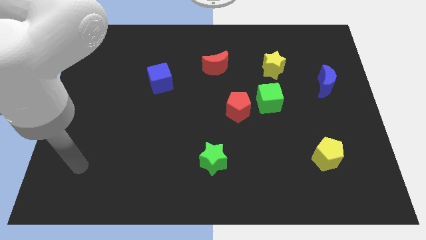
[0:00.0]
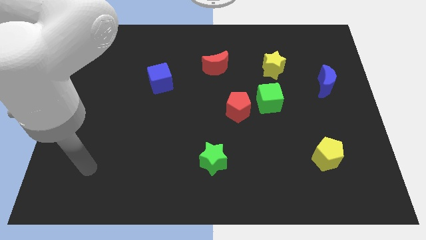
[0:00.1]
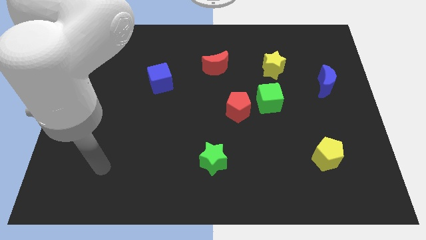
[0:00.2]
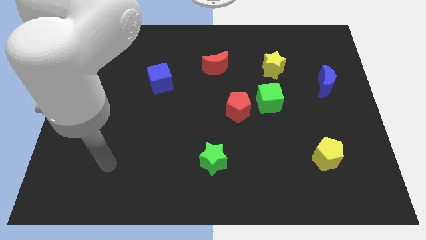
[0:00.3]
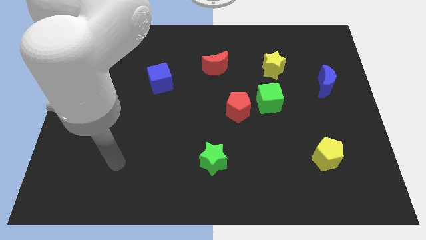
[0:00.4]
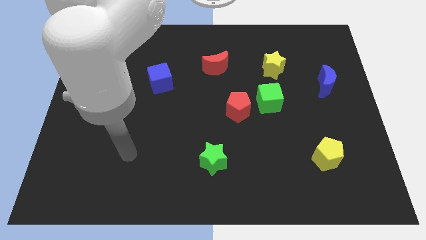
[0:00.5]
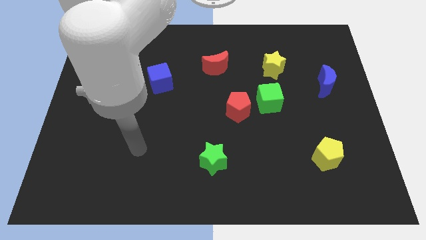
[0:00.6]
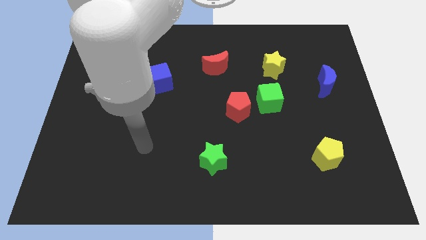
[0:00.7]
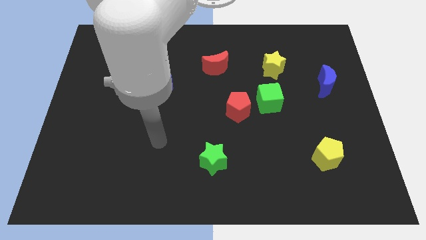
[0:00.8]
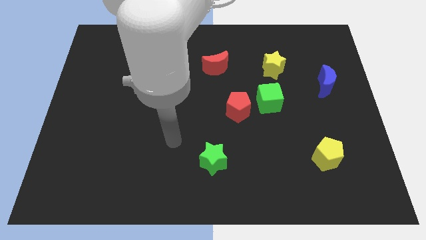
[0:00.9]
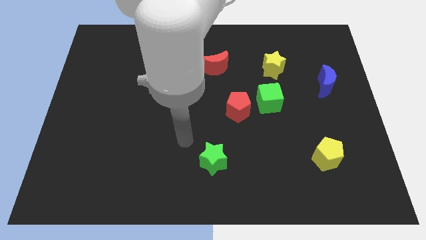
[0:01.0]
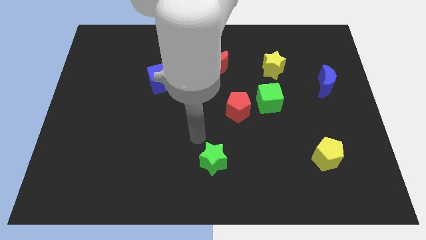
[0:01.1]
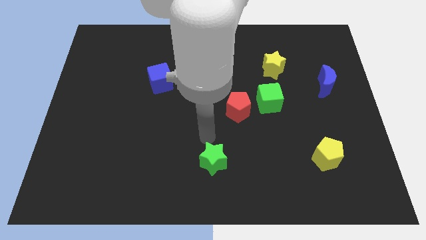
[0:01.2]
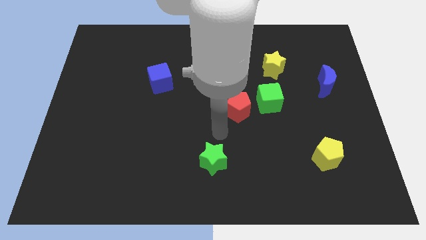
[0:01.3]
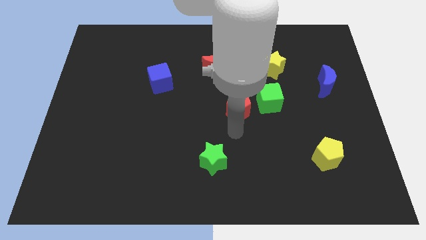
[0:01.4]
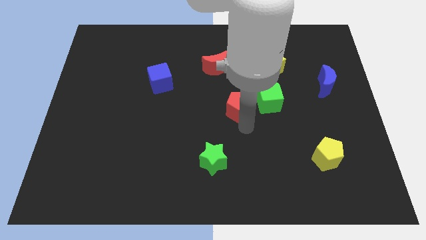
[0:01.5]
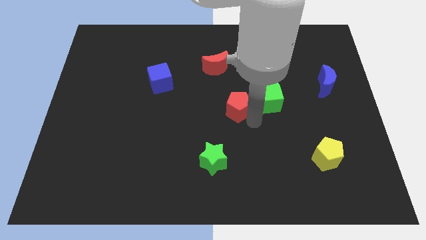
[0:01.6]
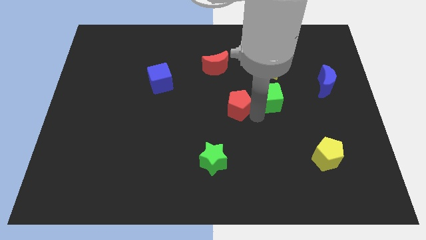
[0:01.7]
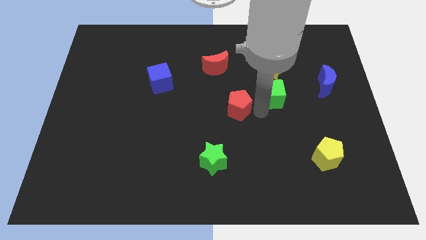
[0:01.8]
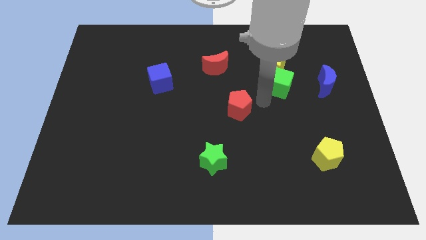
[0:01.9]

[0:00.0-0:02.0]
move the red pentagon away from the green cube

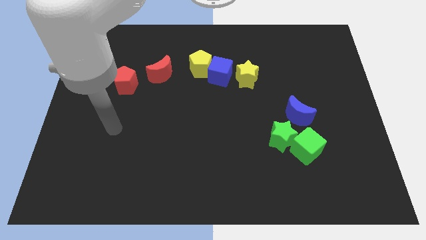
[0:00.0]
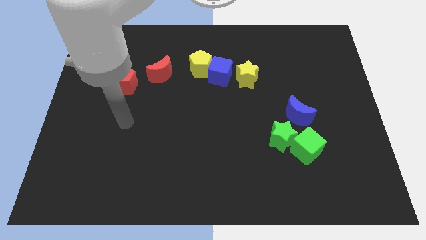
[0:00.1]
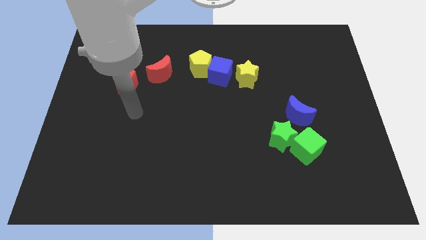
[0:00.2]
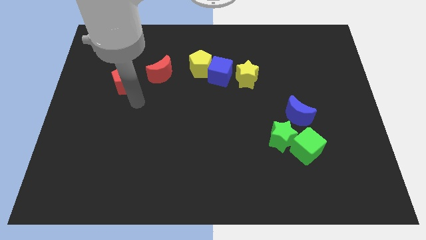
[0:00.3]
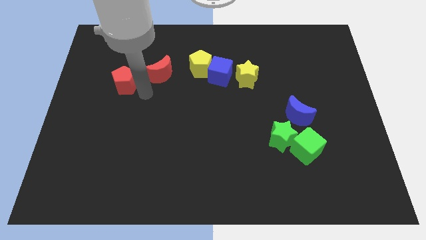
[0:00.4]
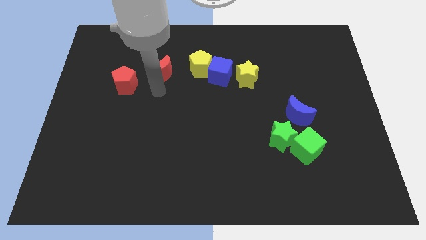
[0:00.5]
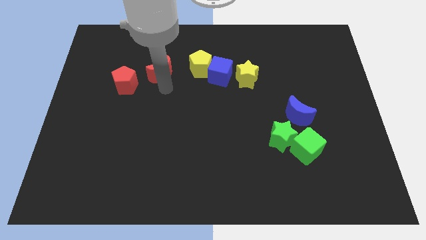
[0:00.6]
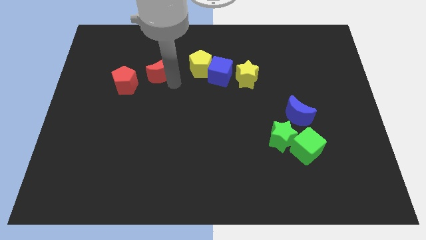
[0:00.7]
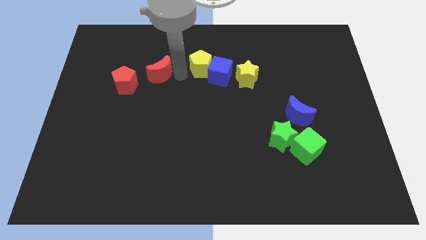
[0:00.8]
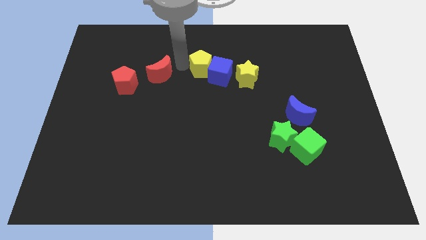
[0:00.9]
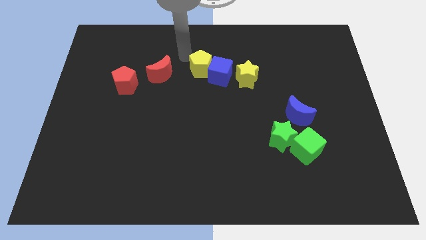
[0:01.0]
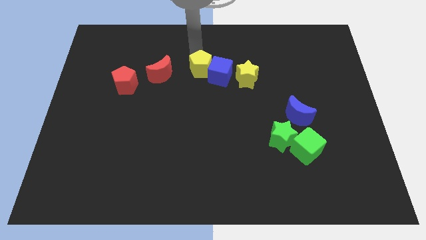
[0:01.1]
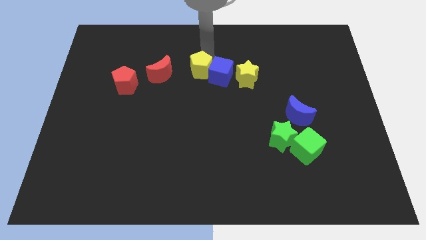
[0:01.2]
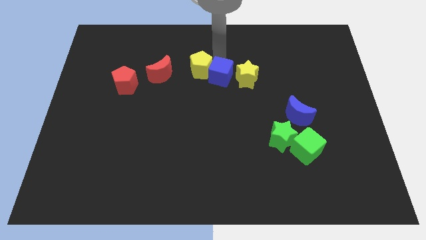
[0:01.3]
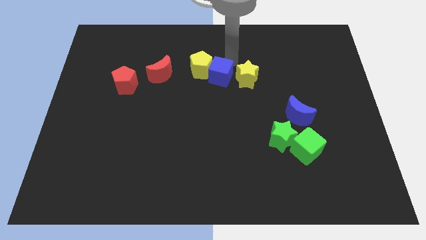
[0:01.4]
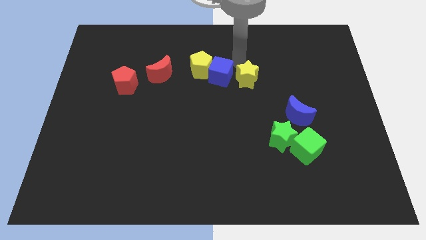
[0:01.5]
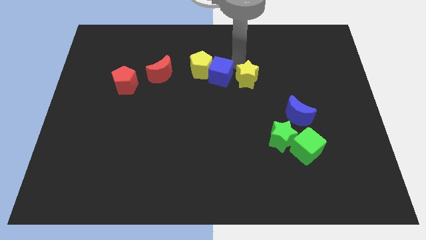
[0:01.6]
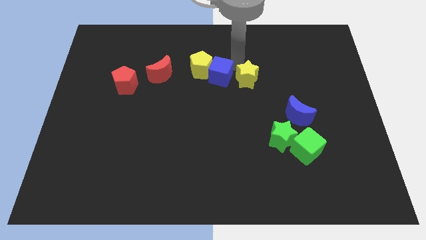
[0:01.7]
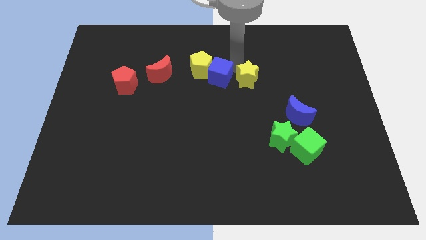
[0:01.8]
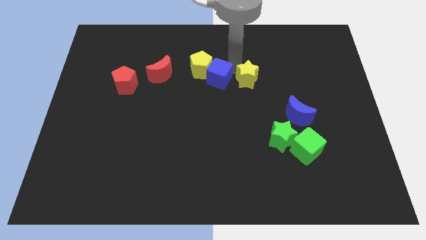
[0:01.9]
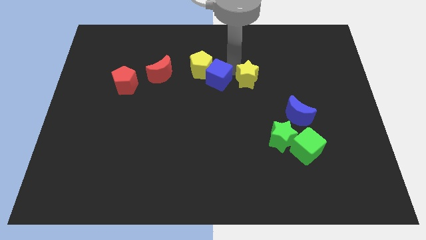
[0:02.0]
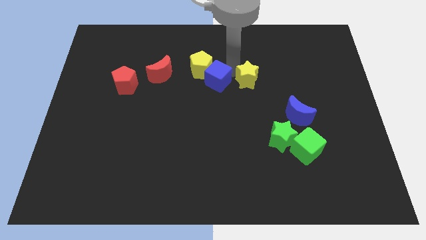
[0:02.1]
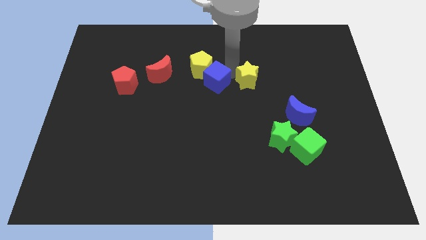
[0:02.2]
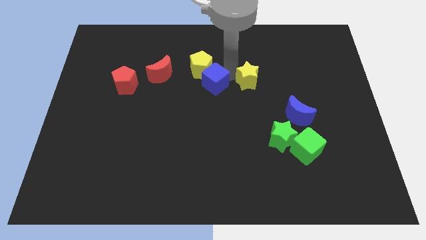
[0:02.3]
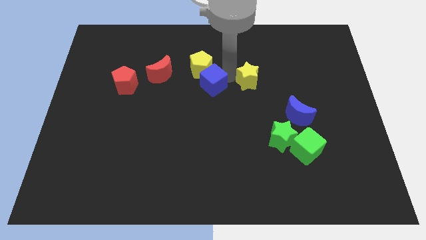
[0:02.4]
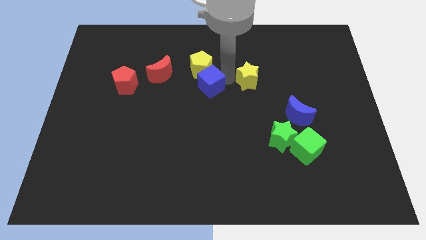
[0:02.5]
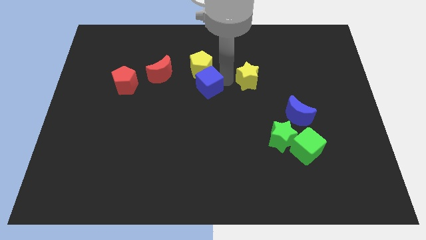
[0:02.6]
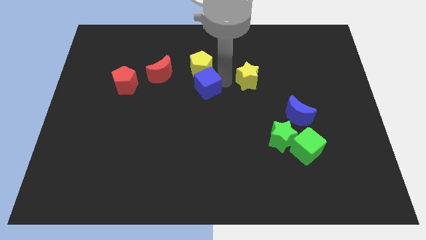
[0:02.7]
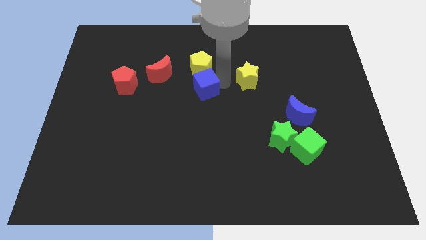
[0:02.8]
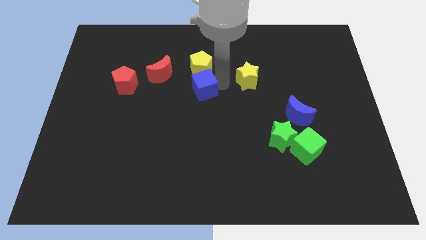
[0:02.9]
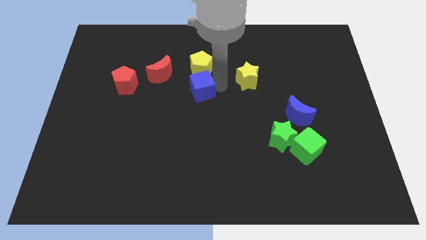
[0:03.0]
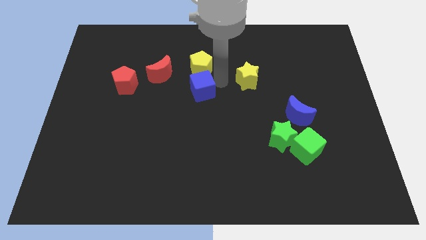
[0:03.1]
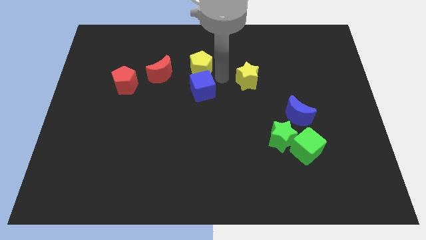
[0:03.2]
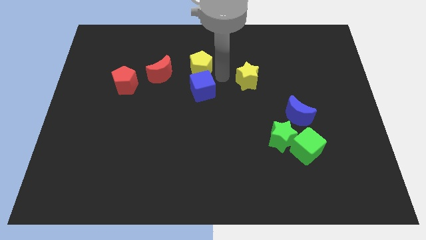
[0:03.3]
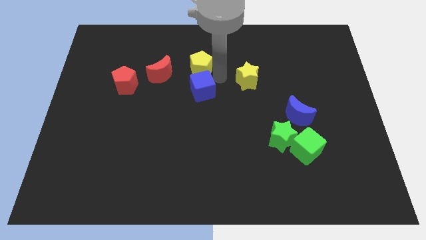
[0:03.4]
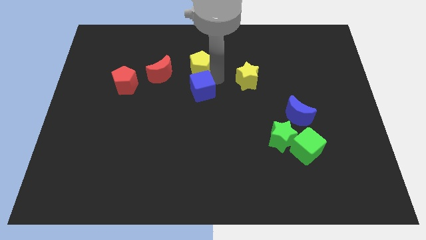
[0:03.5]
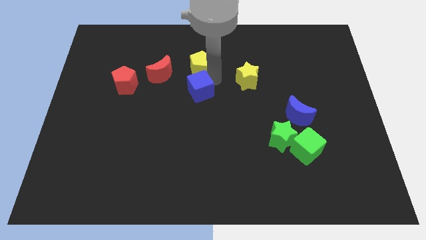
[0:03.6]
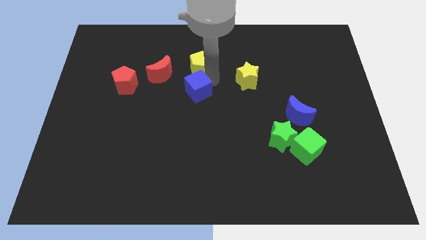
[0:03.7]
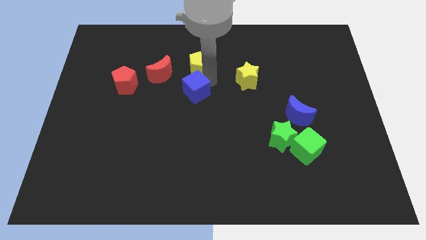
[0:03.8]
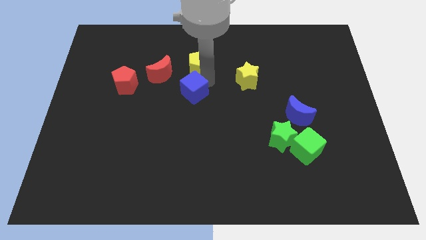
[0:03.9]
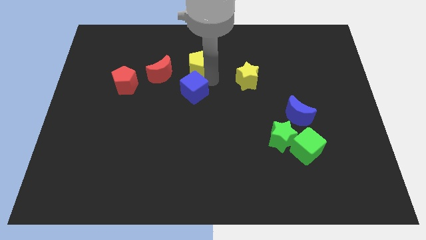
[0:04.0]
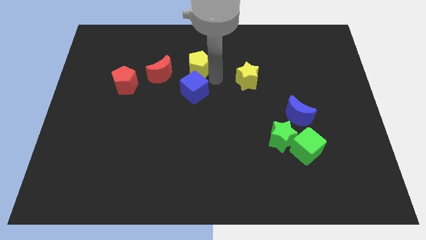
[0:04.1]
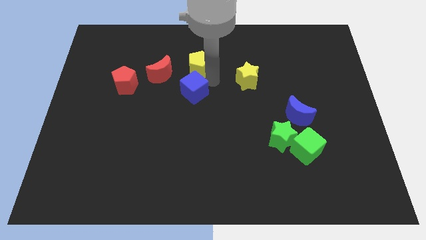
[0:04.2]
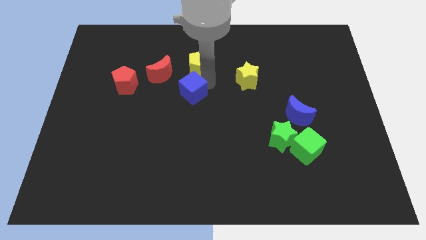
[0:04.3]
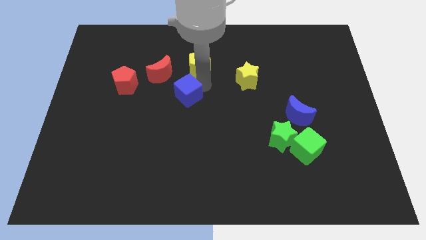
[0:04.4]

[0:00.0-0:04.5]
move the blue cube away from the yellow pentagon and yellow star

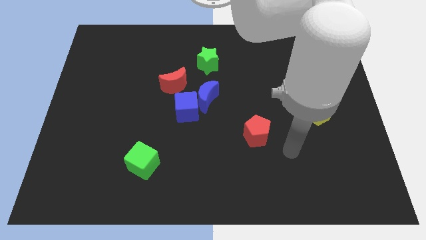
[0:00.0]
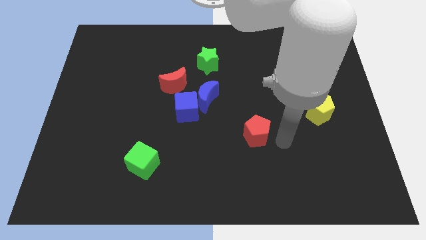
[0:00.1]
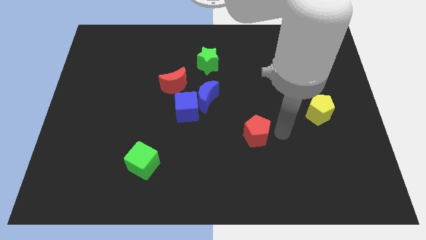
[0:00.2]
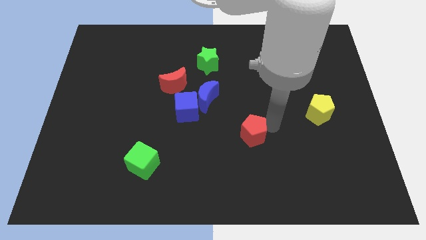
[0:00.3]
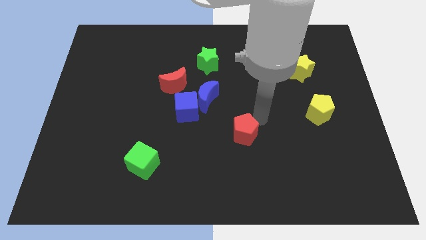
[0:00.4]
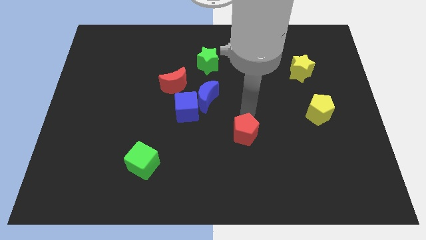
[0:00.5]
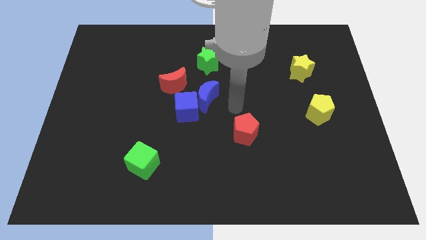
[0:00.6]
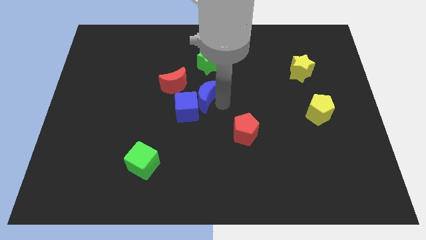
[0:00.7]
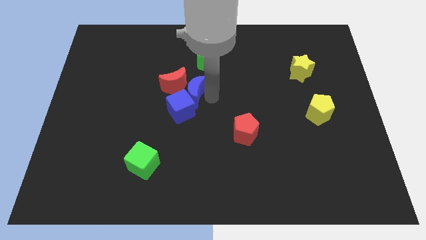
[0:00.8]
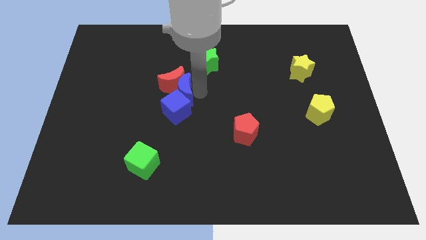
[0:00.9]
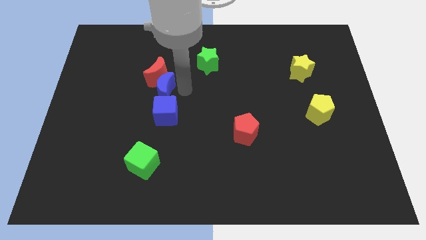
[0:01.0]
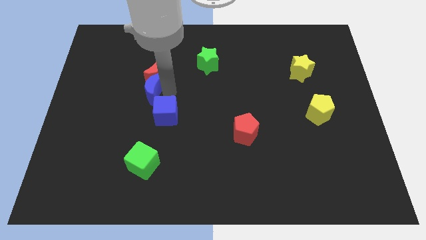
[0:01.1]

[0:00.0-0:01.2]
pull the blue cube apart from the blue moon and red moon

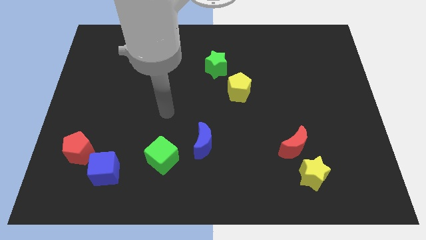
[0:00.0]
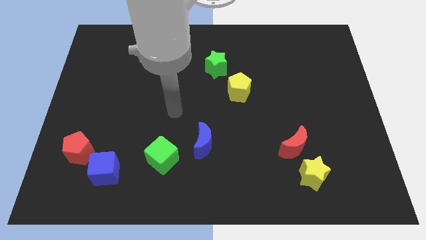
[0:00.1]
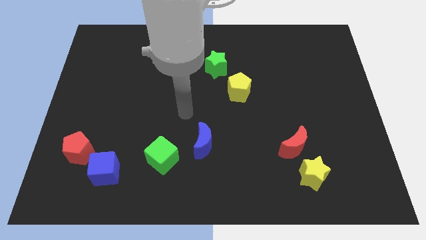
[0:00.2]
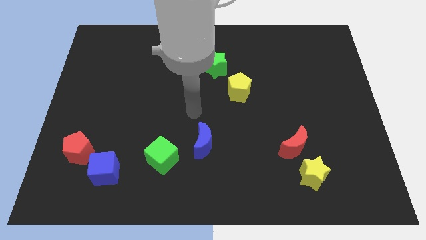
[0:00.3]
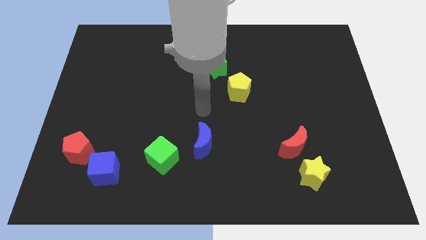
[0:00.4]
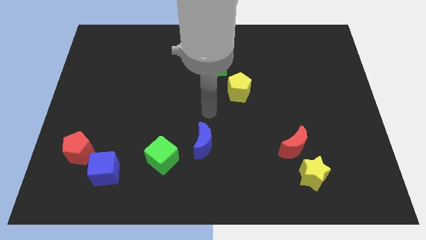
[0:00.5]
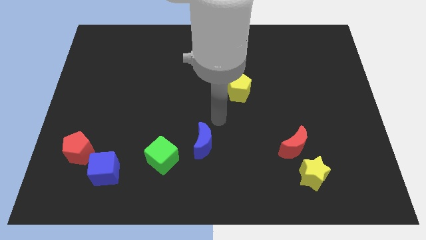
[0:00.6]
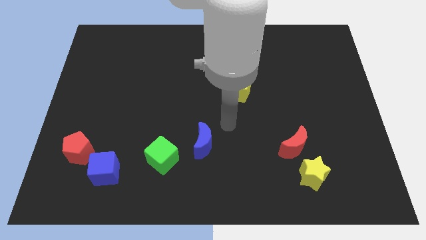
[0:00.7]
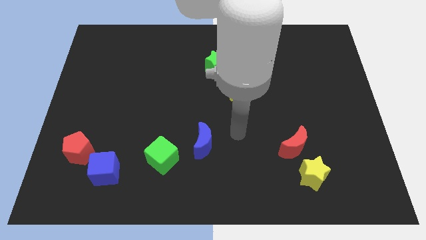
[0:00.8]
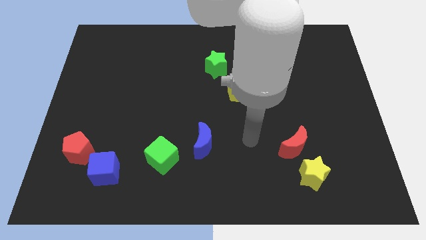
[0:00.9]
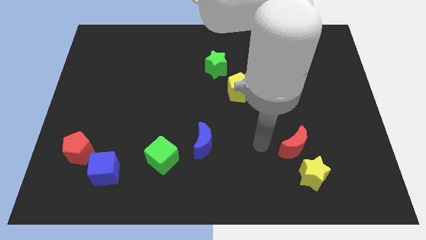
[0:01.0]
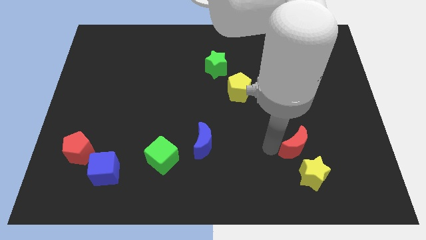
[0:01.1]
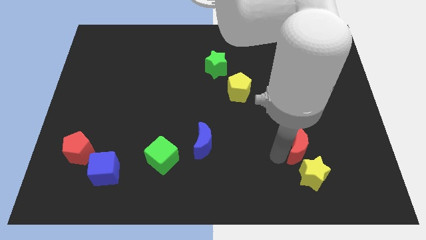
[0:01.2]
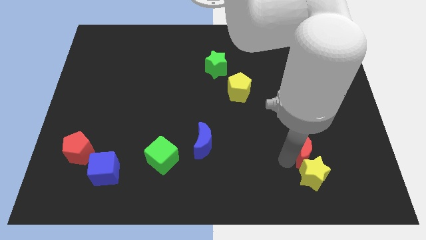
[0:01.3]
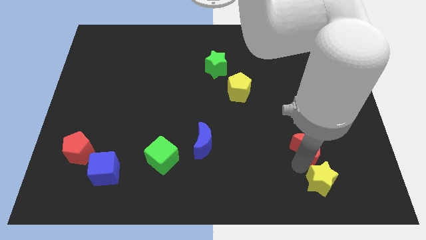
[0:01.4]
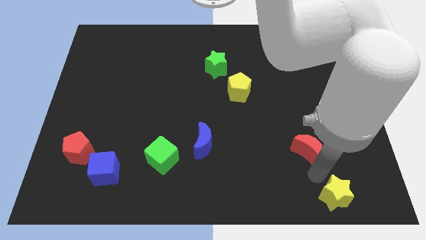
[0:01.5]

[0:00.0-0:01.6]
separate the red moon from the yellow star
